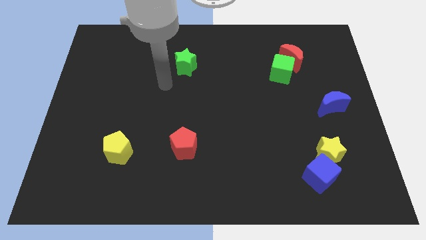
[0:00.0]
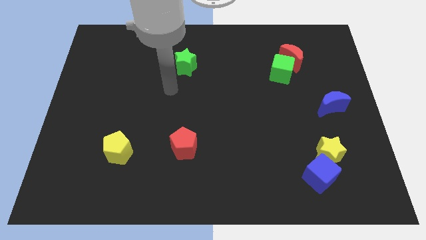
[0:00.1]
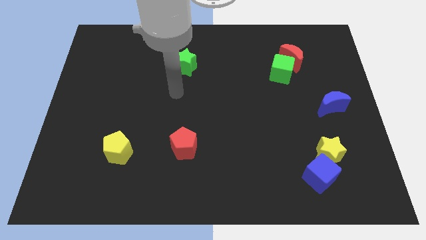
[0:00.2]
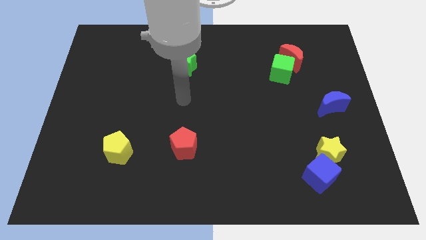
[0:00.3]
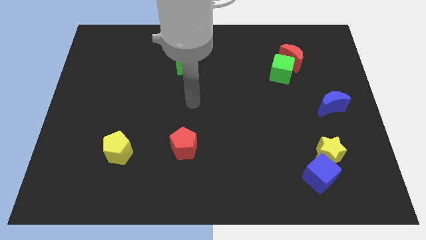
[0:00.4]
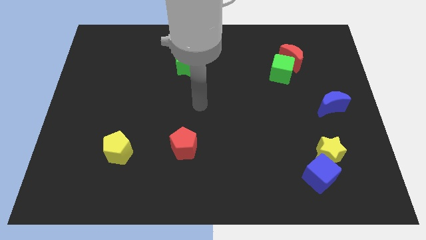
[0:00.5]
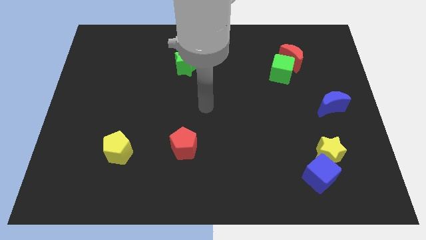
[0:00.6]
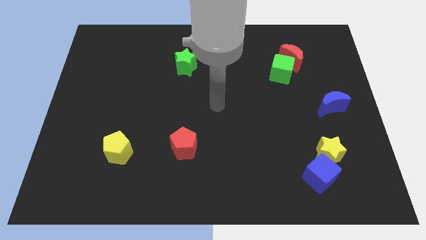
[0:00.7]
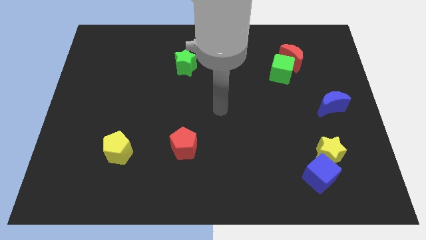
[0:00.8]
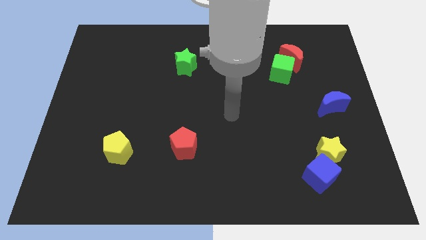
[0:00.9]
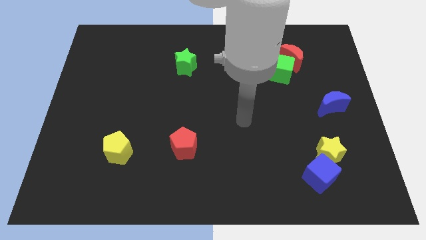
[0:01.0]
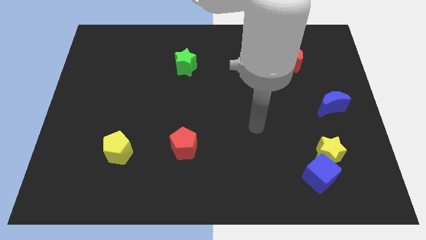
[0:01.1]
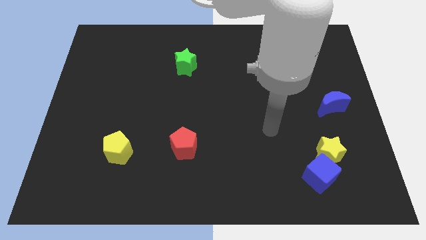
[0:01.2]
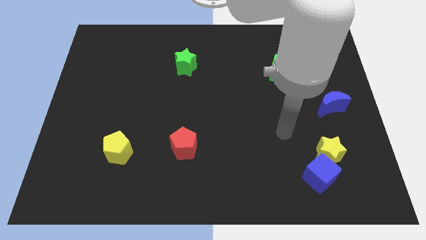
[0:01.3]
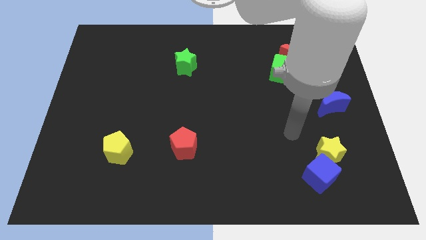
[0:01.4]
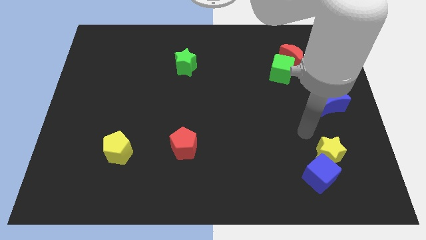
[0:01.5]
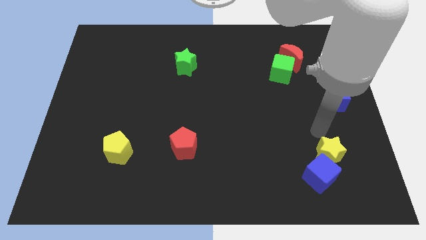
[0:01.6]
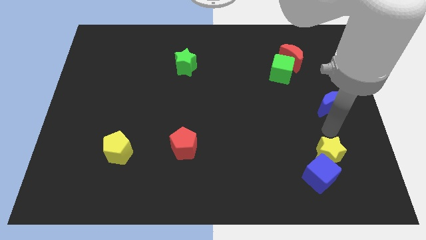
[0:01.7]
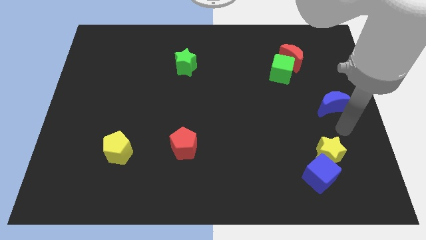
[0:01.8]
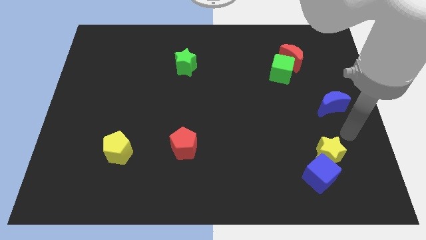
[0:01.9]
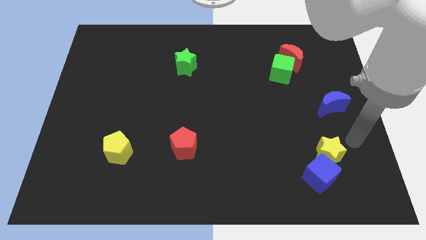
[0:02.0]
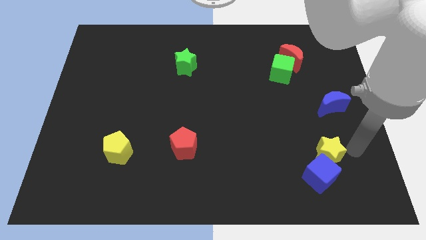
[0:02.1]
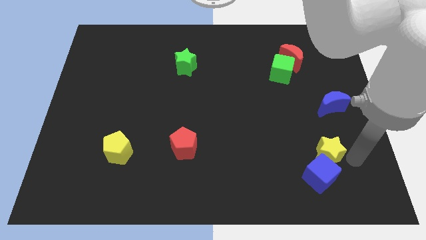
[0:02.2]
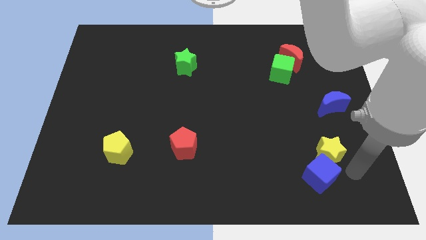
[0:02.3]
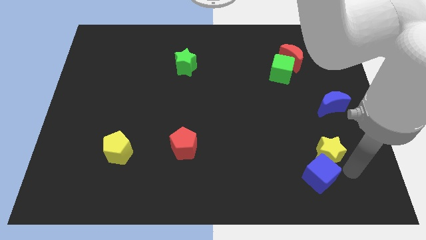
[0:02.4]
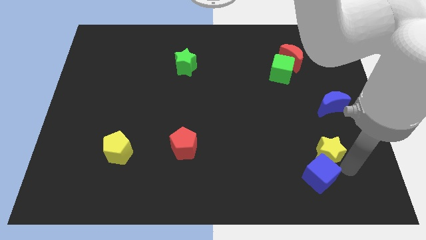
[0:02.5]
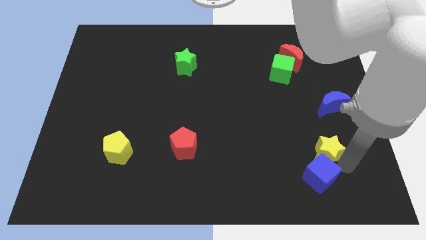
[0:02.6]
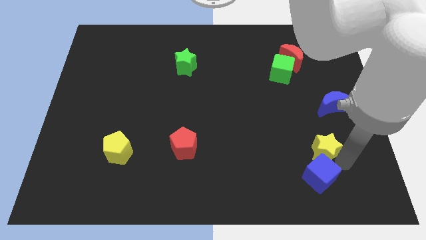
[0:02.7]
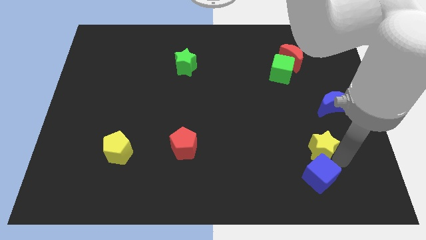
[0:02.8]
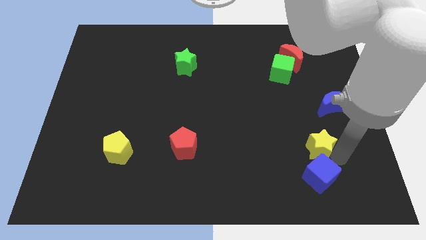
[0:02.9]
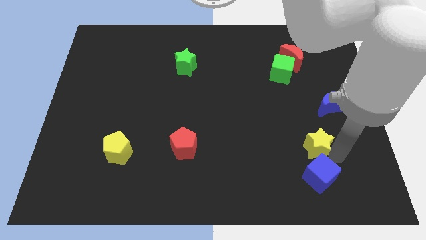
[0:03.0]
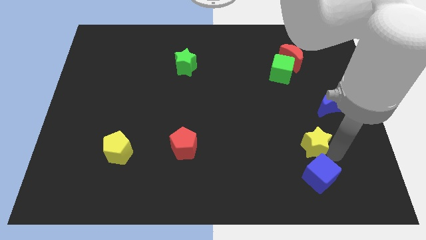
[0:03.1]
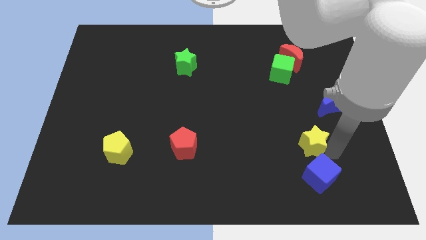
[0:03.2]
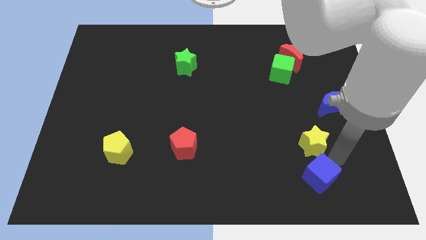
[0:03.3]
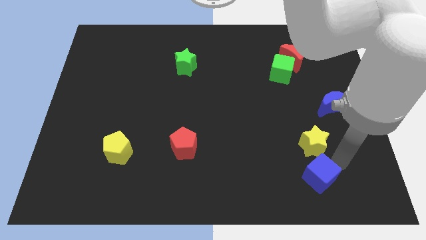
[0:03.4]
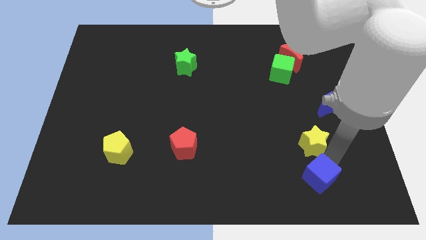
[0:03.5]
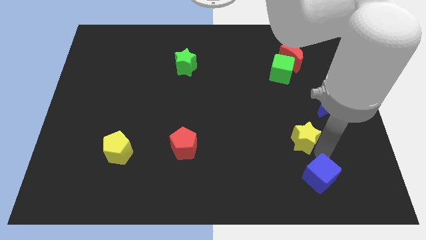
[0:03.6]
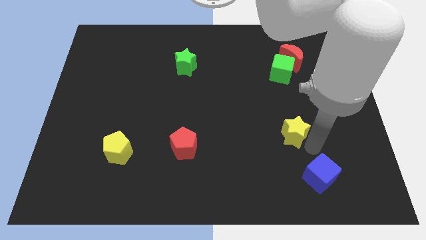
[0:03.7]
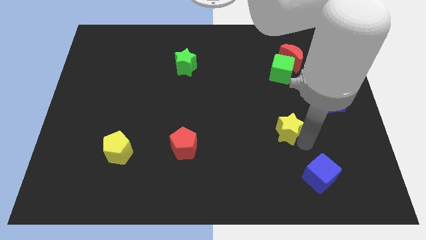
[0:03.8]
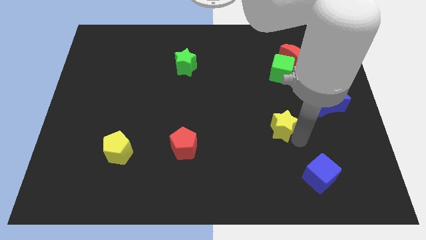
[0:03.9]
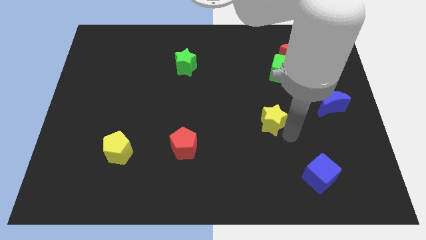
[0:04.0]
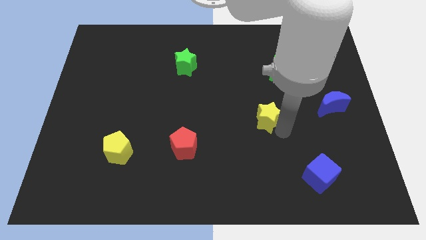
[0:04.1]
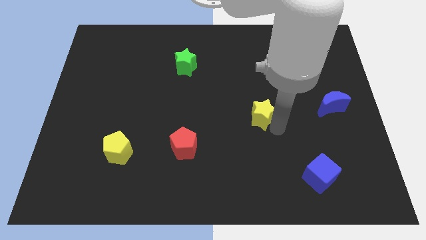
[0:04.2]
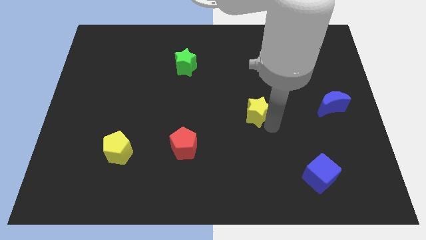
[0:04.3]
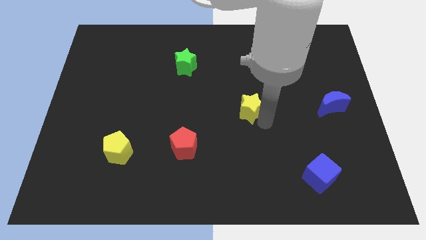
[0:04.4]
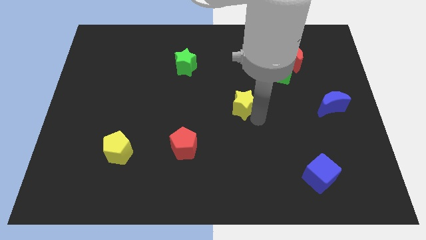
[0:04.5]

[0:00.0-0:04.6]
push the yellow star upwards and to the left

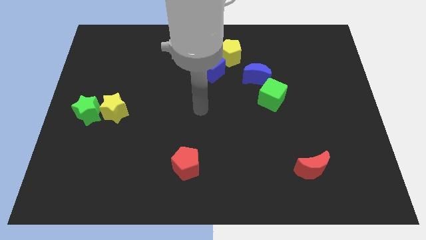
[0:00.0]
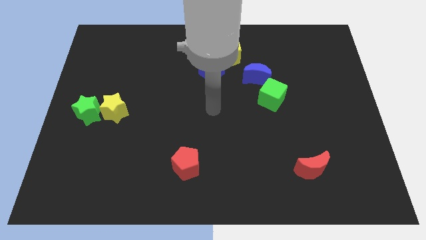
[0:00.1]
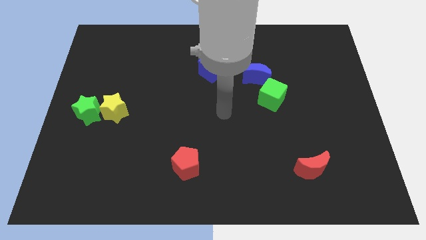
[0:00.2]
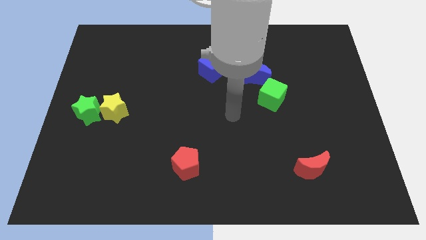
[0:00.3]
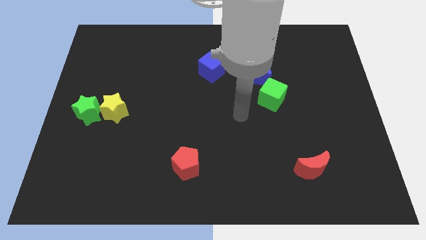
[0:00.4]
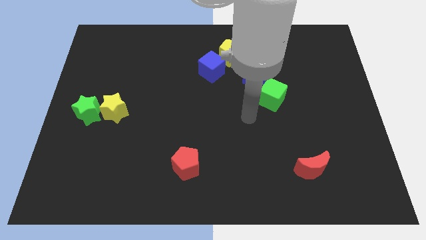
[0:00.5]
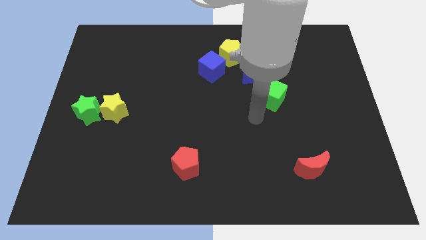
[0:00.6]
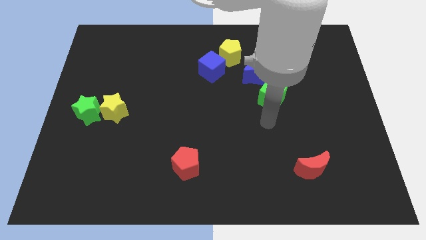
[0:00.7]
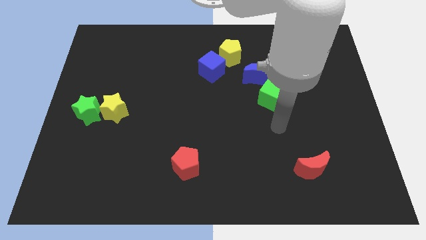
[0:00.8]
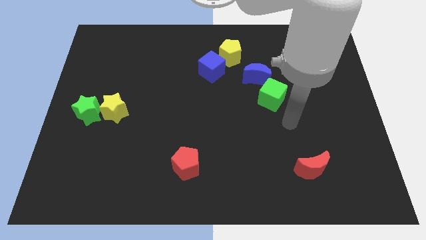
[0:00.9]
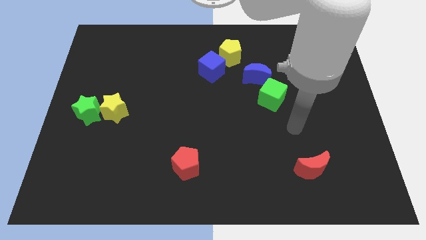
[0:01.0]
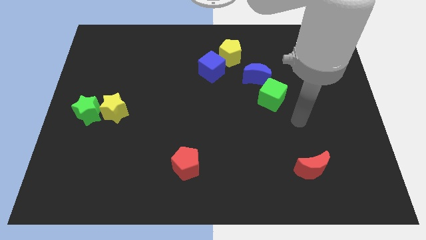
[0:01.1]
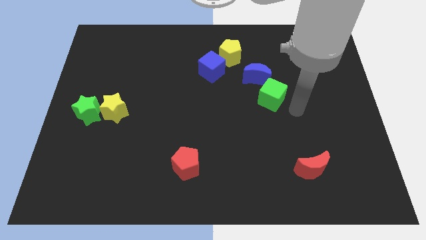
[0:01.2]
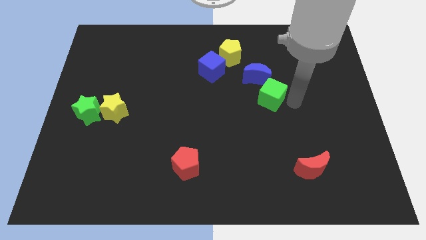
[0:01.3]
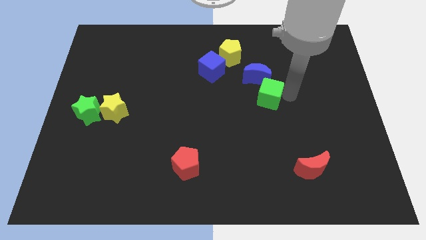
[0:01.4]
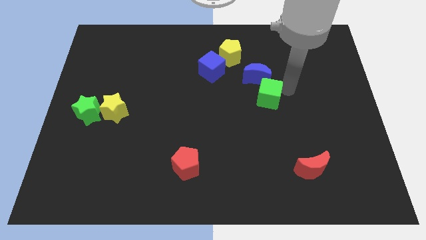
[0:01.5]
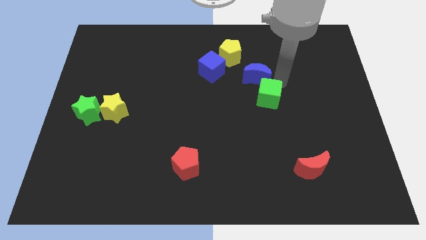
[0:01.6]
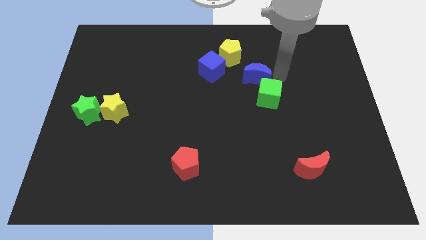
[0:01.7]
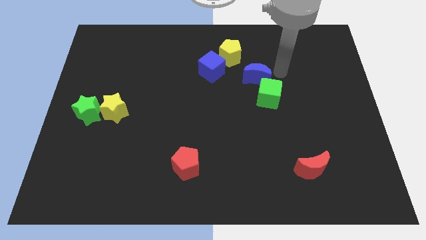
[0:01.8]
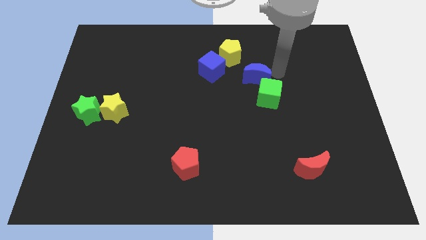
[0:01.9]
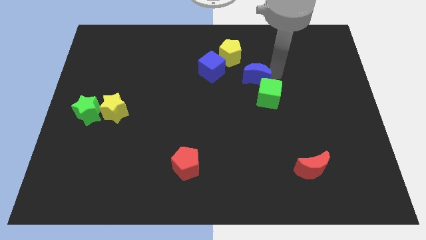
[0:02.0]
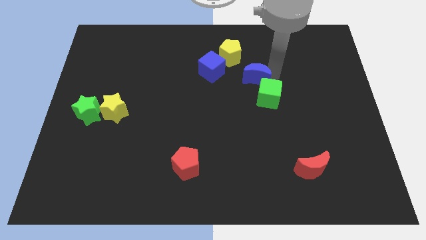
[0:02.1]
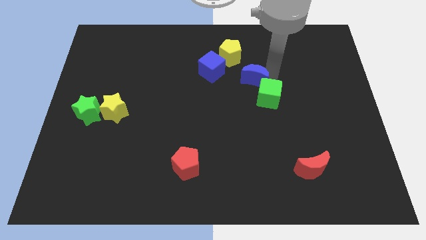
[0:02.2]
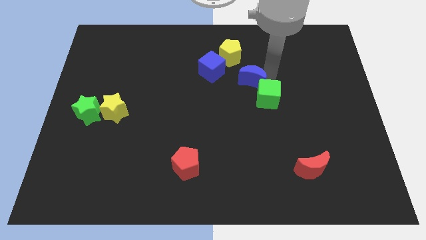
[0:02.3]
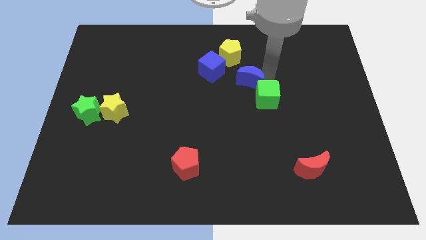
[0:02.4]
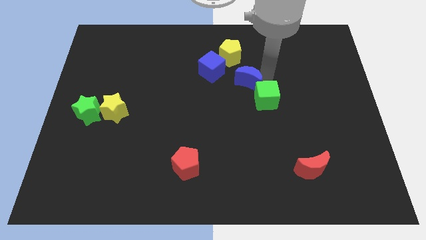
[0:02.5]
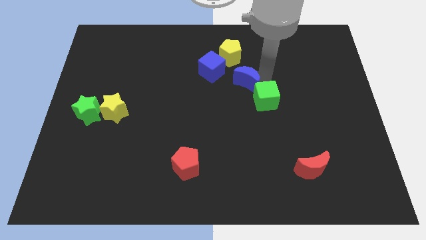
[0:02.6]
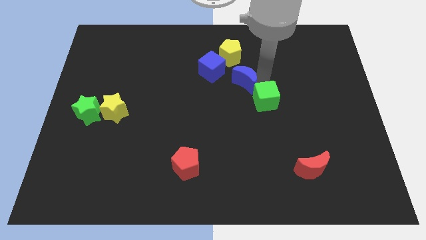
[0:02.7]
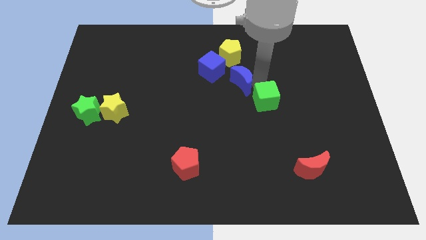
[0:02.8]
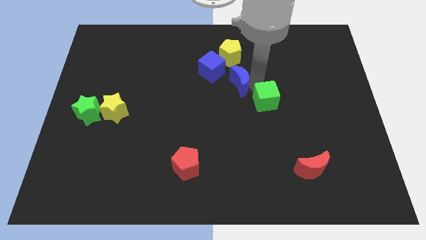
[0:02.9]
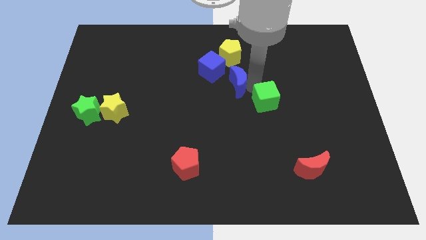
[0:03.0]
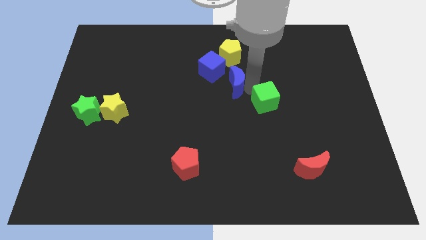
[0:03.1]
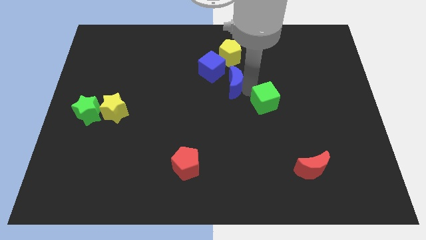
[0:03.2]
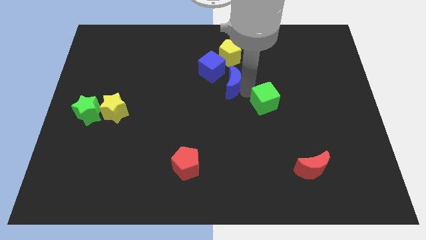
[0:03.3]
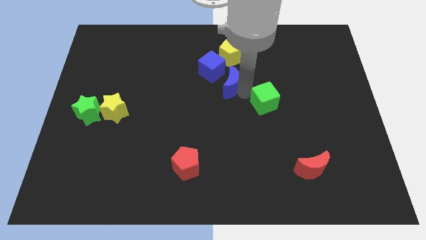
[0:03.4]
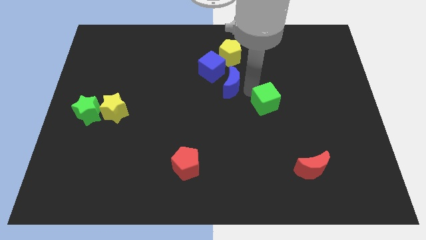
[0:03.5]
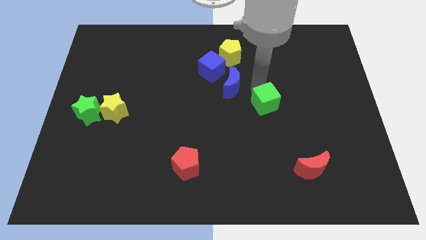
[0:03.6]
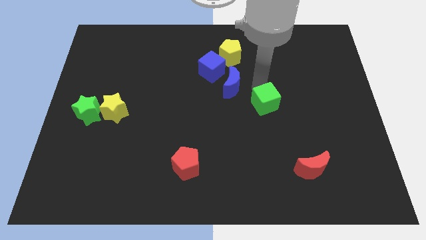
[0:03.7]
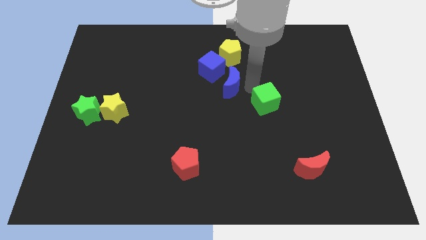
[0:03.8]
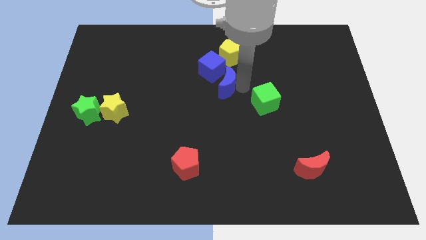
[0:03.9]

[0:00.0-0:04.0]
move the blue moon to the left a bit
